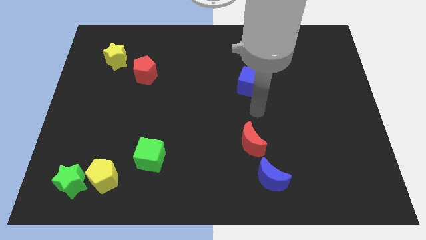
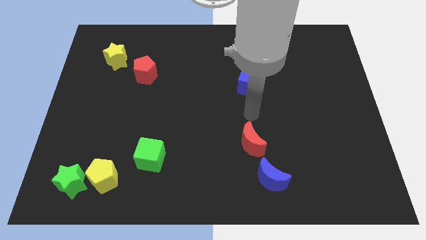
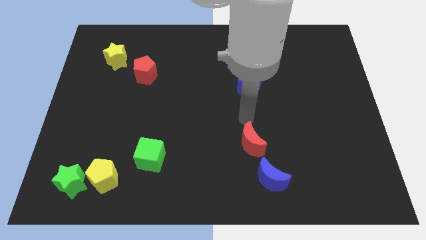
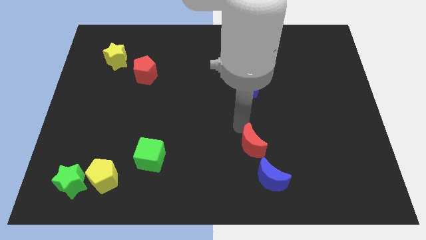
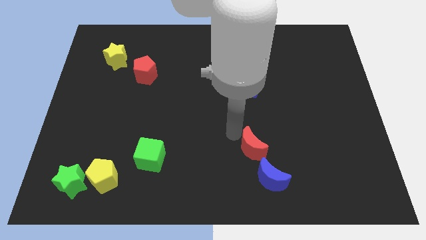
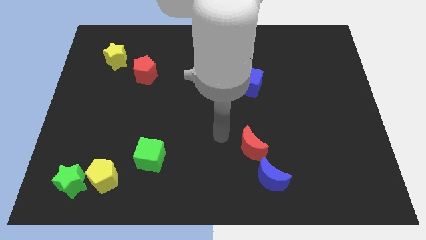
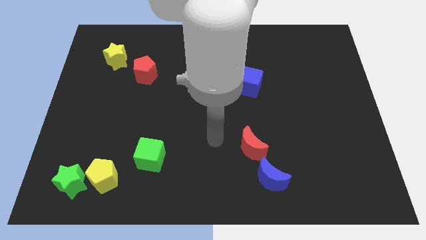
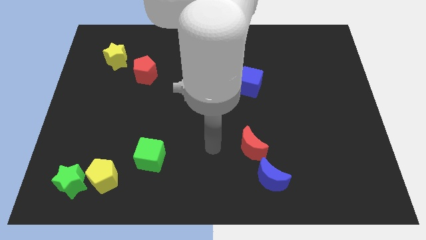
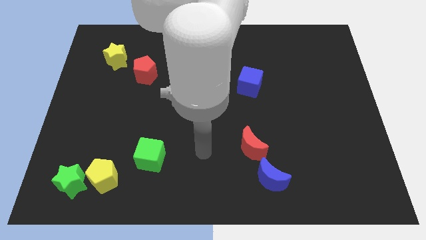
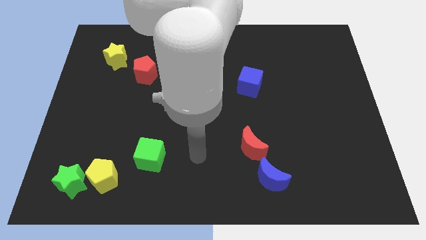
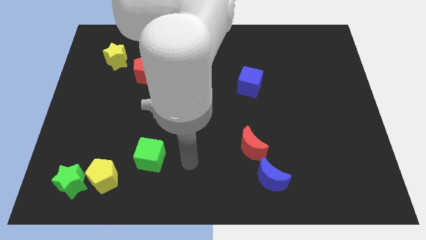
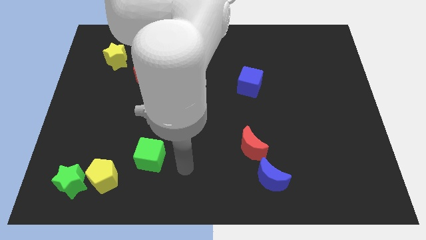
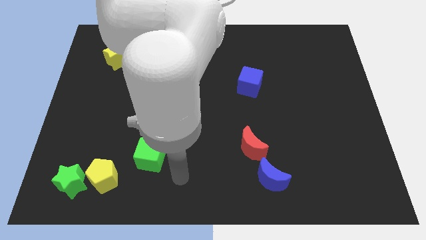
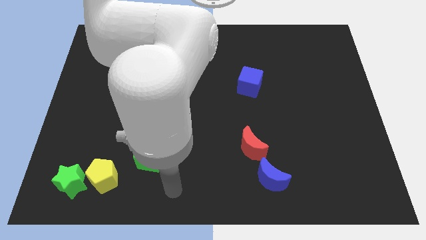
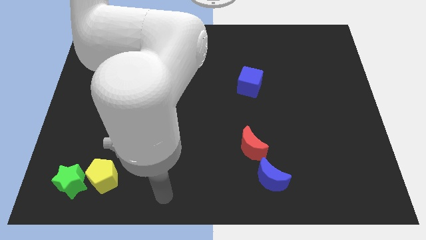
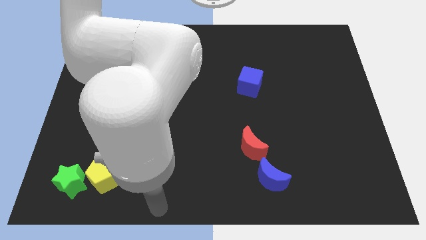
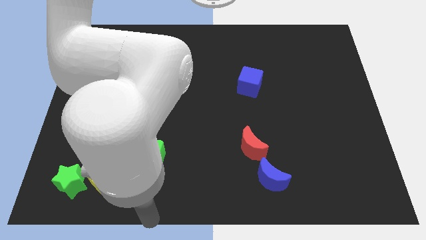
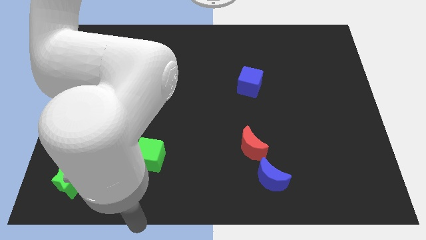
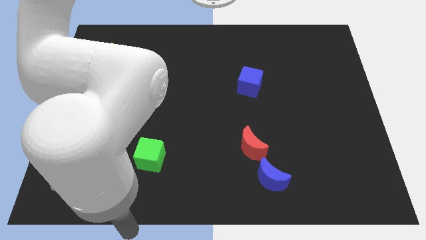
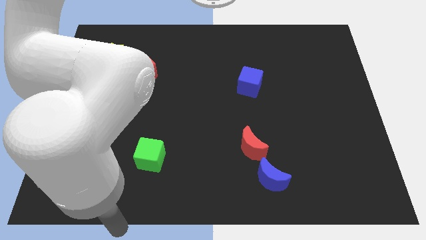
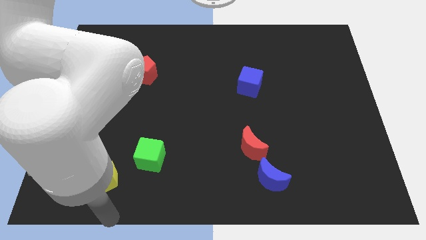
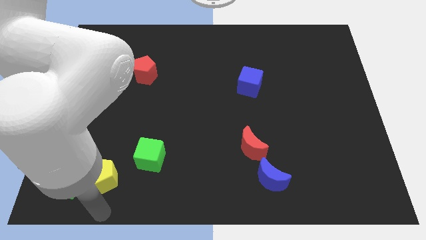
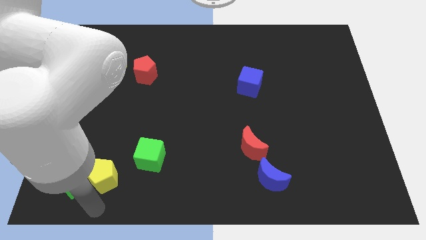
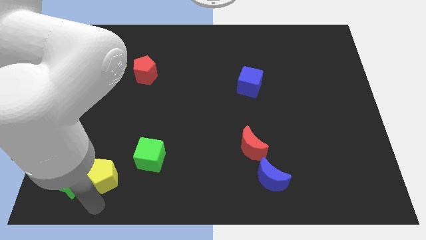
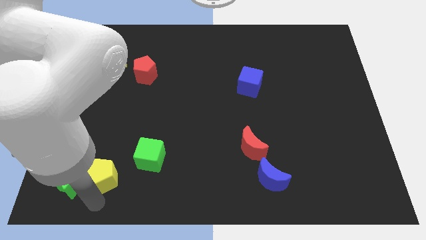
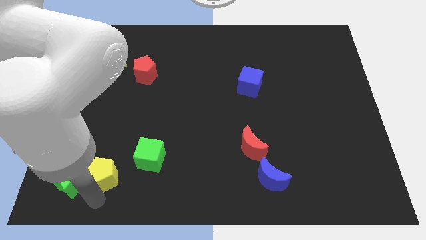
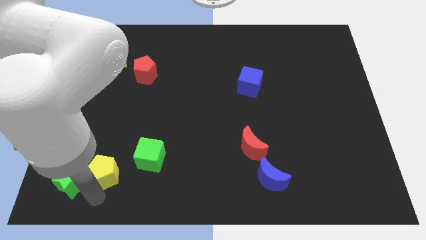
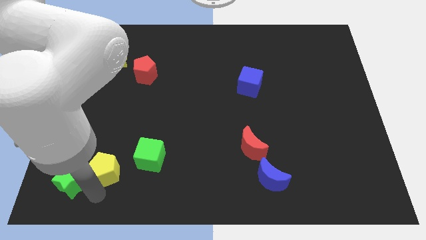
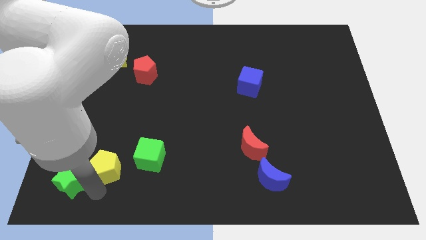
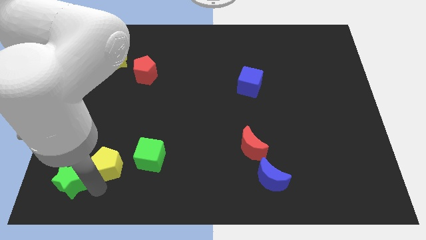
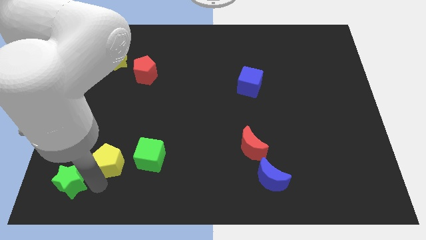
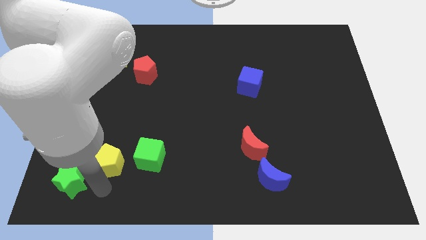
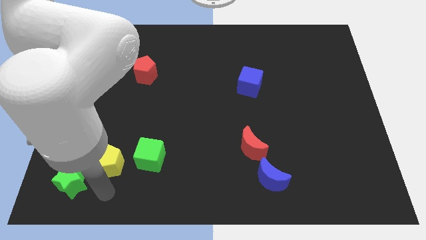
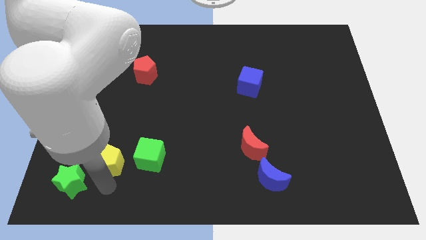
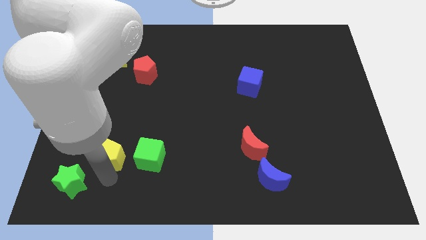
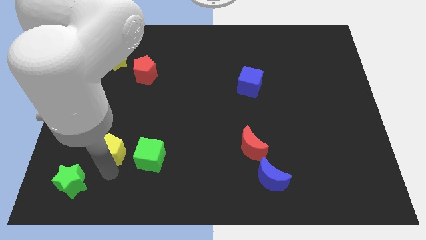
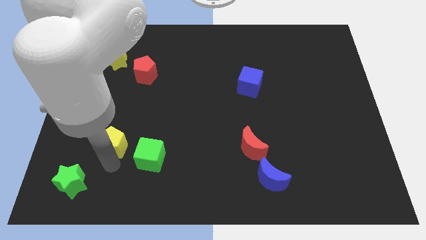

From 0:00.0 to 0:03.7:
slightly slide the yellow pentagon upwards

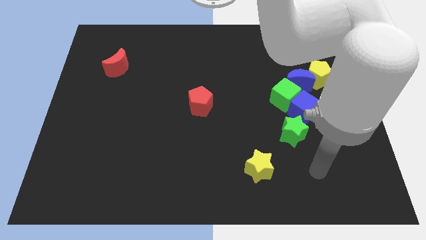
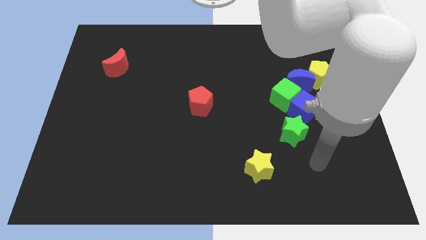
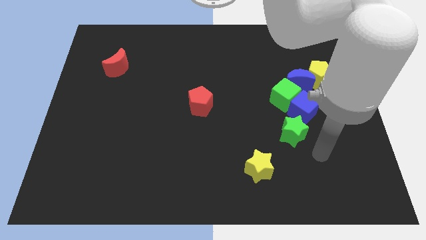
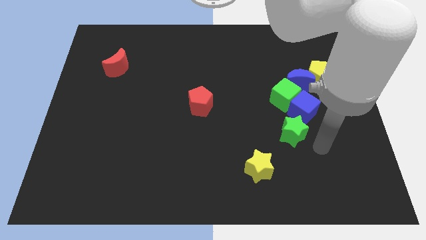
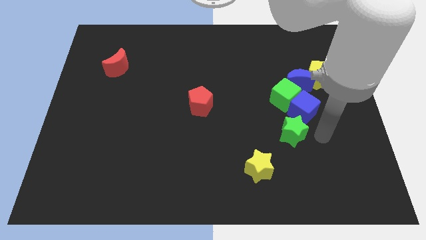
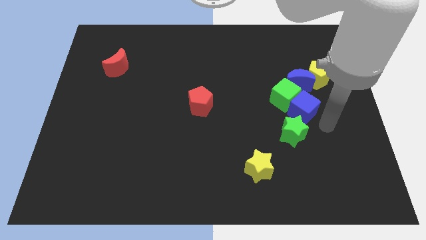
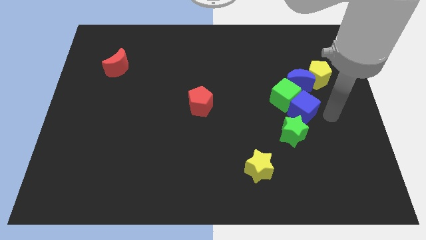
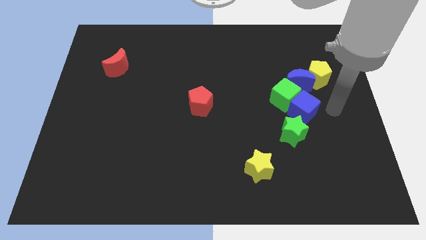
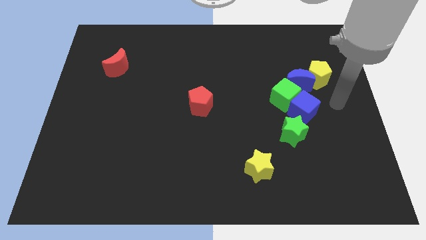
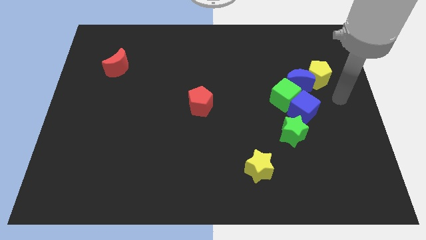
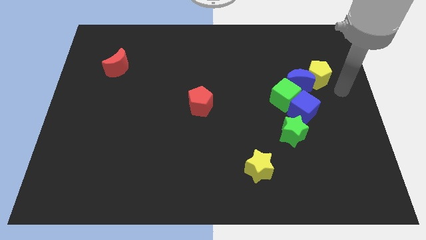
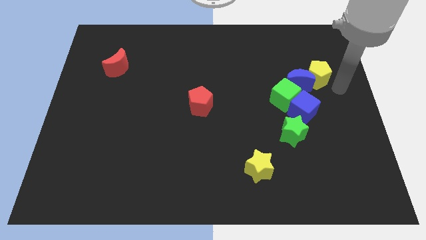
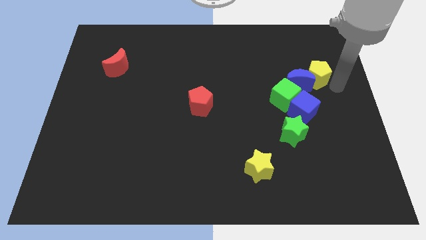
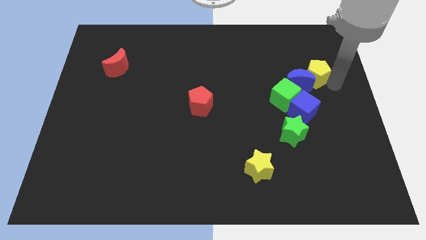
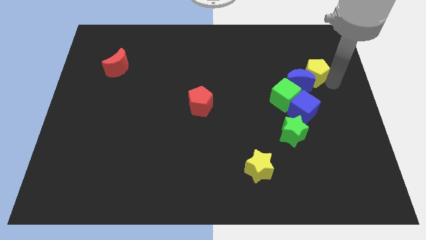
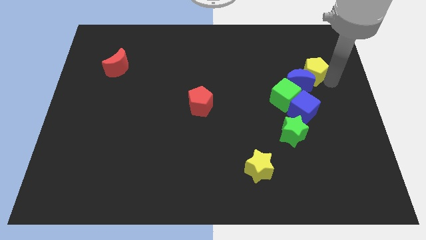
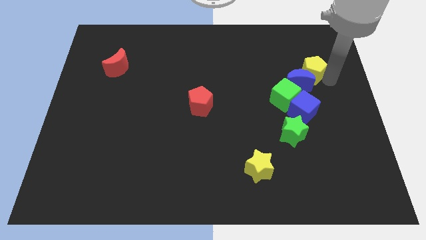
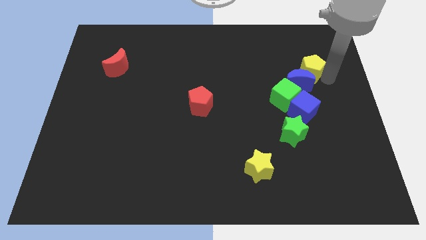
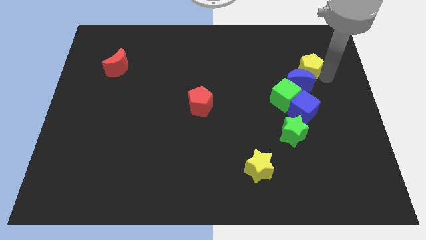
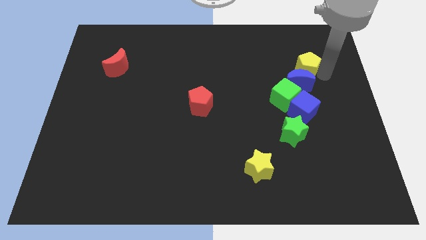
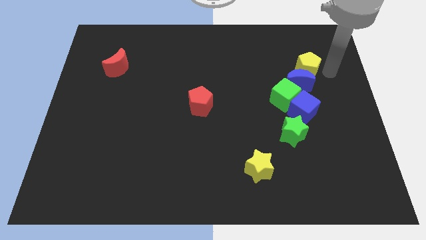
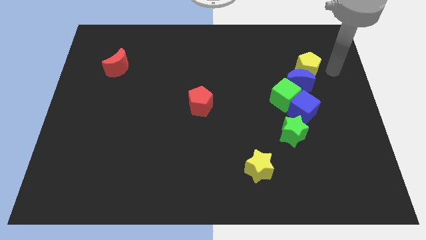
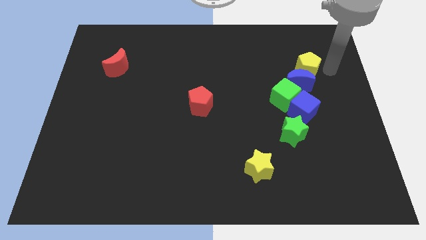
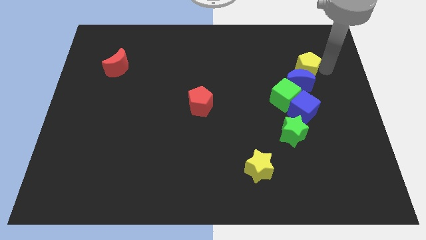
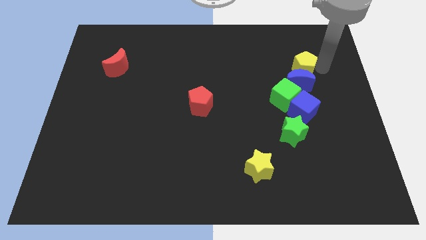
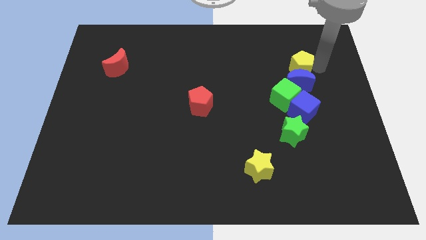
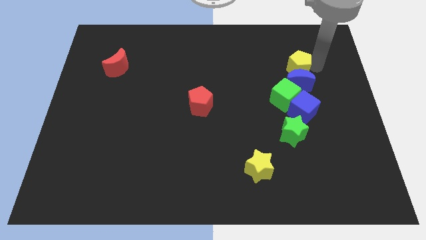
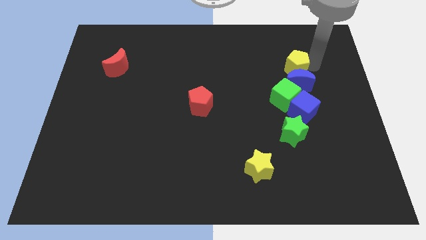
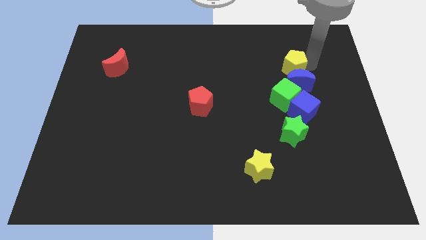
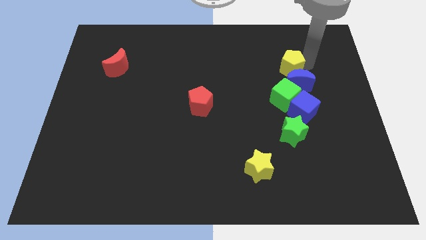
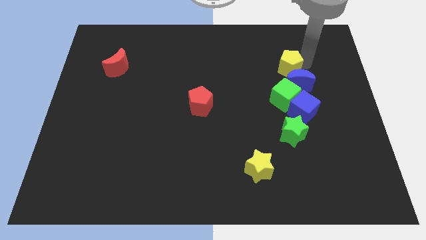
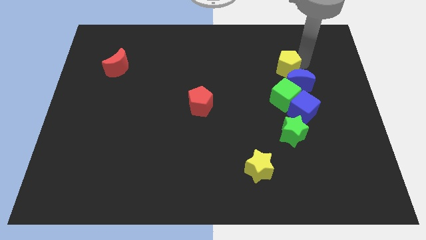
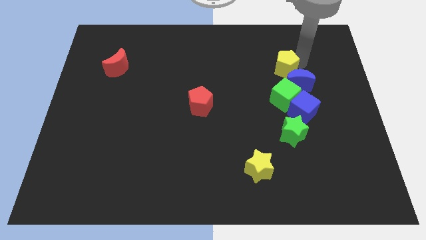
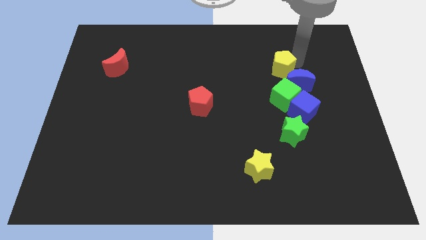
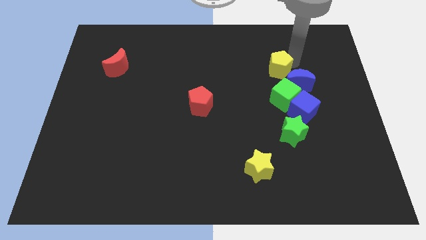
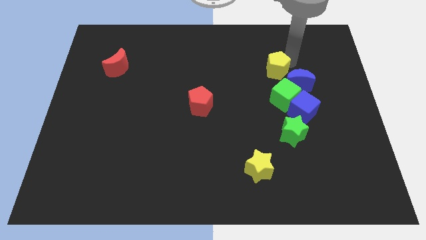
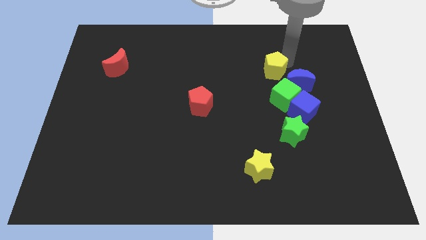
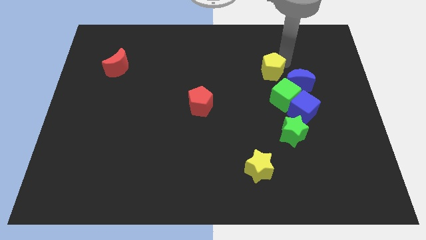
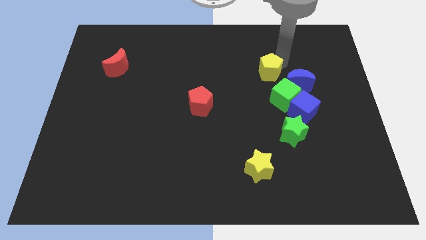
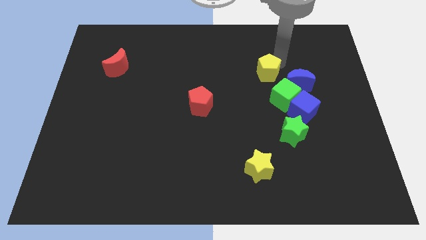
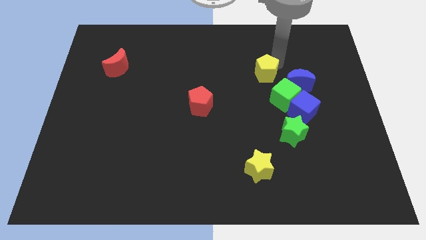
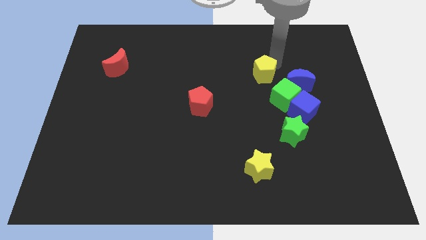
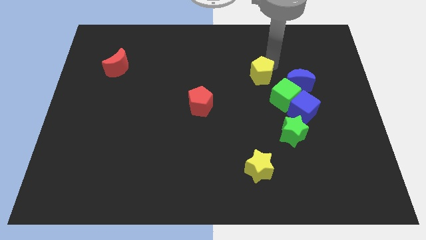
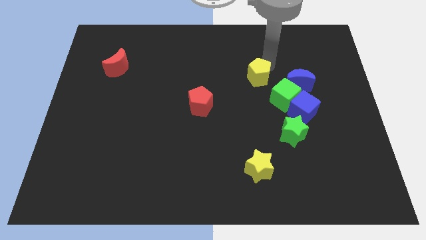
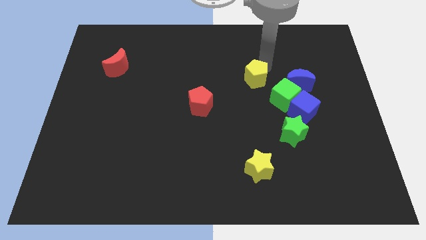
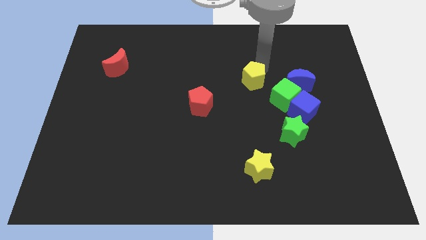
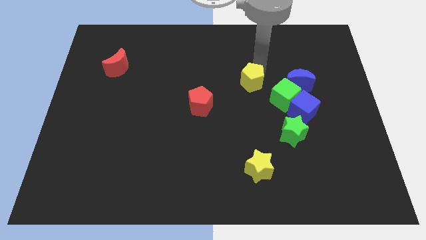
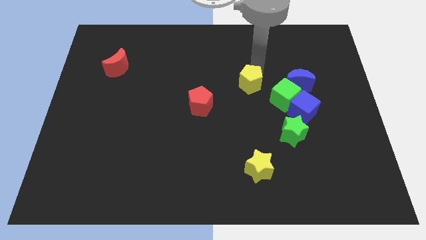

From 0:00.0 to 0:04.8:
push the yellow pentagon diagonally down and to the left somewhat
